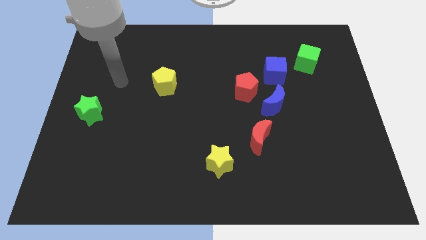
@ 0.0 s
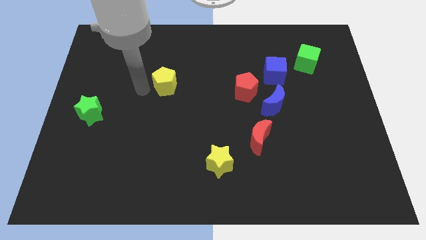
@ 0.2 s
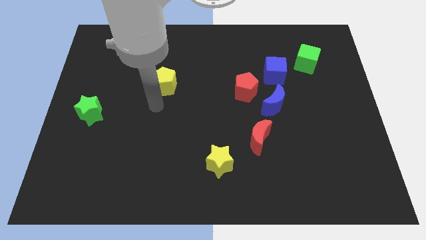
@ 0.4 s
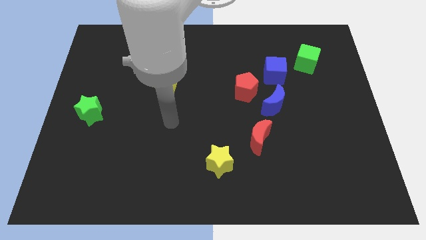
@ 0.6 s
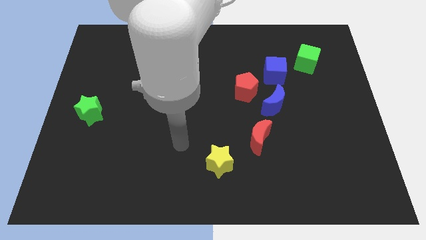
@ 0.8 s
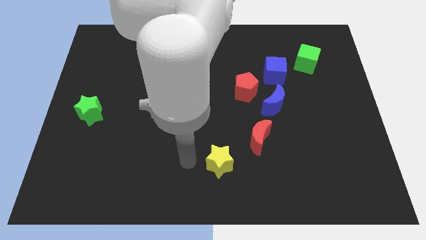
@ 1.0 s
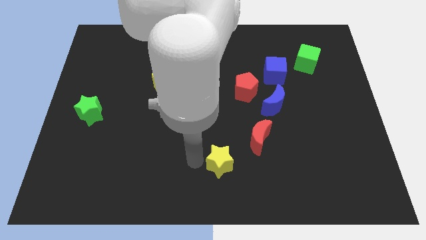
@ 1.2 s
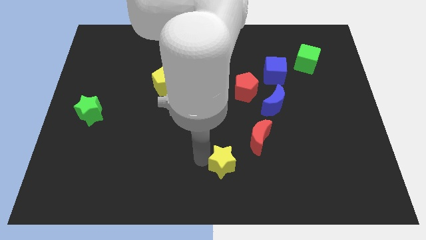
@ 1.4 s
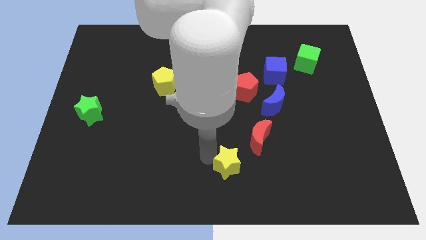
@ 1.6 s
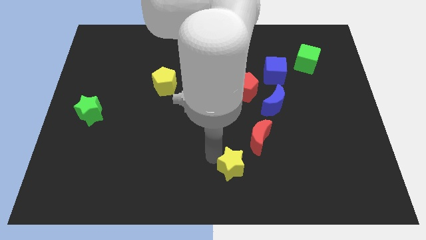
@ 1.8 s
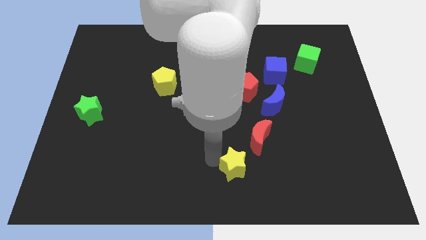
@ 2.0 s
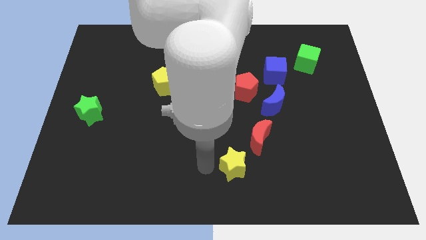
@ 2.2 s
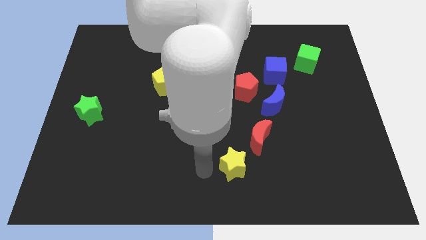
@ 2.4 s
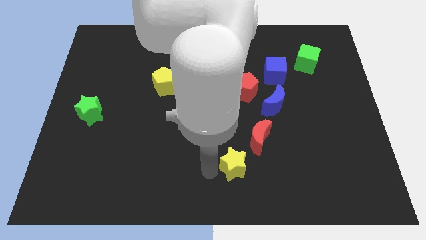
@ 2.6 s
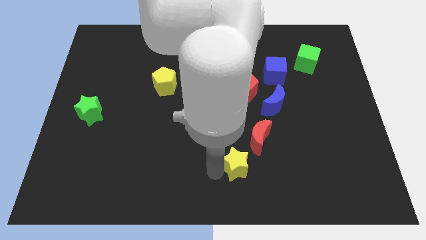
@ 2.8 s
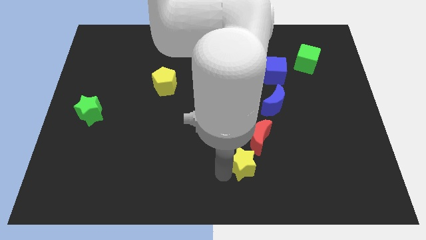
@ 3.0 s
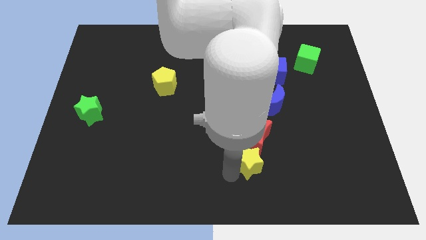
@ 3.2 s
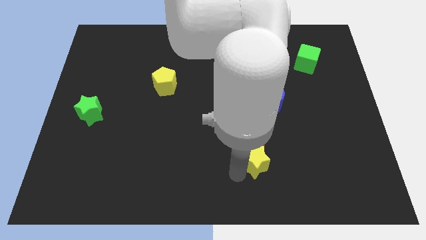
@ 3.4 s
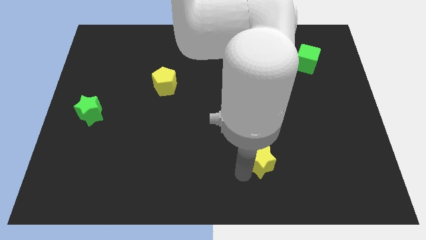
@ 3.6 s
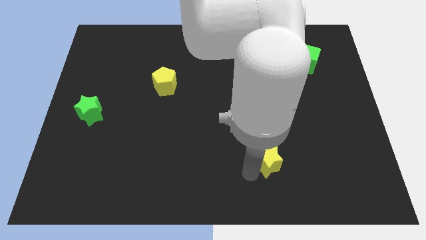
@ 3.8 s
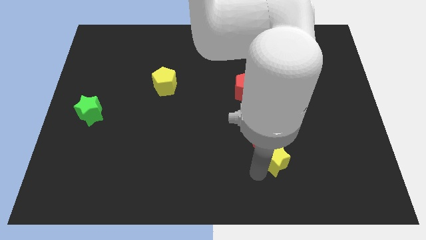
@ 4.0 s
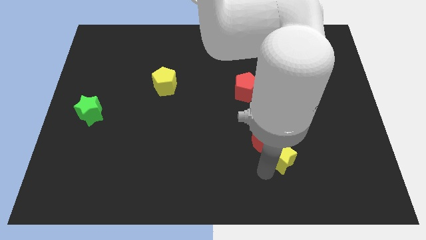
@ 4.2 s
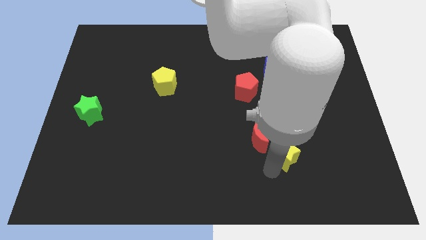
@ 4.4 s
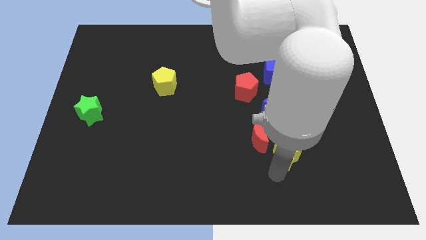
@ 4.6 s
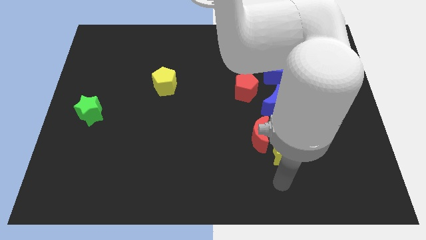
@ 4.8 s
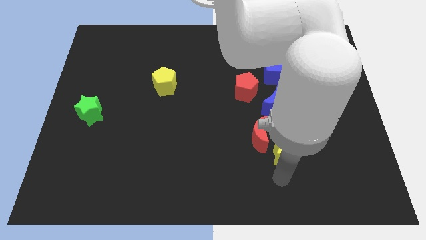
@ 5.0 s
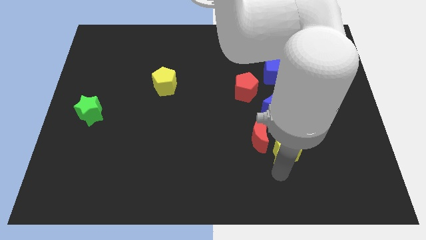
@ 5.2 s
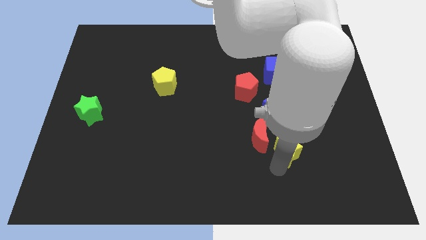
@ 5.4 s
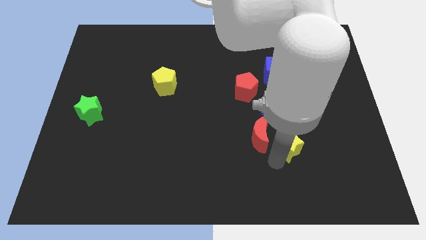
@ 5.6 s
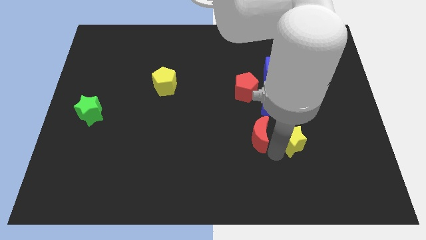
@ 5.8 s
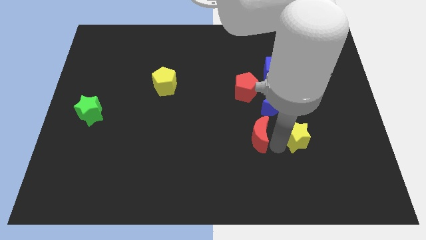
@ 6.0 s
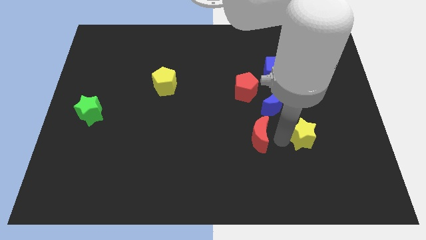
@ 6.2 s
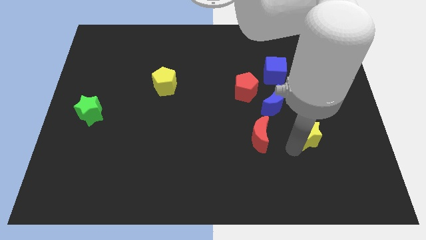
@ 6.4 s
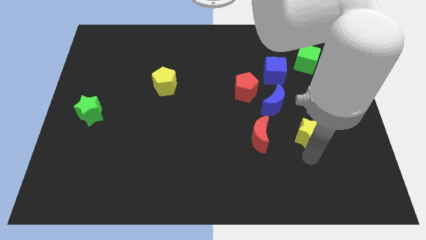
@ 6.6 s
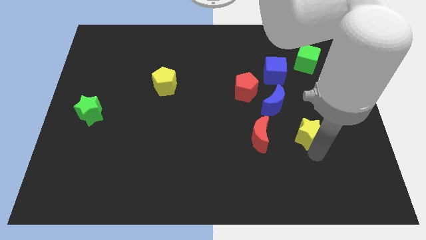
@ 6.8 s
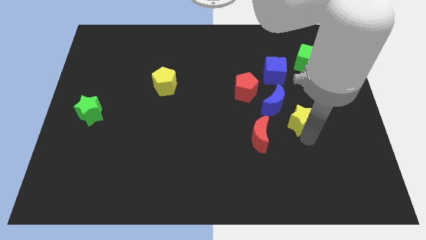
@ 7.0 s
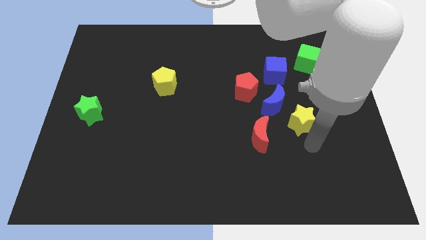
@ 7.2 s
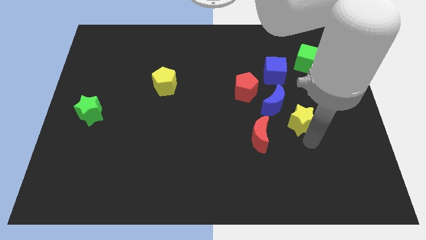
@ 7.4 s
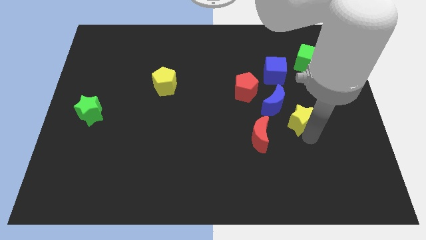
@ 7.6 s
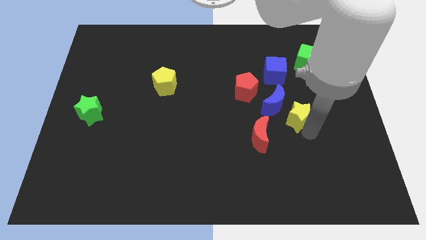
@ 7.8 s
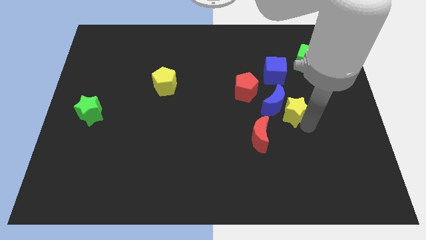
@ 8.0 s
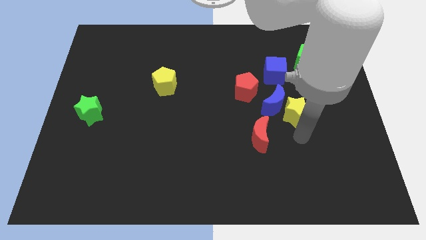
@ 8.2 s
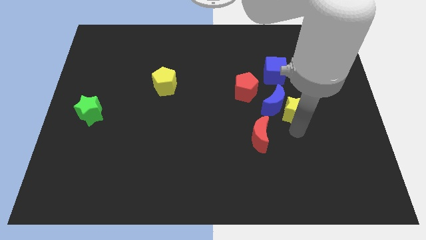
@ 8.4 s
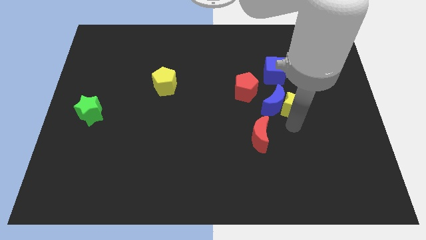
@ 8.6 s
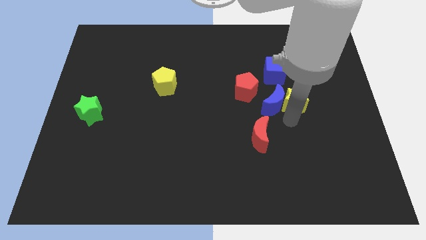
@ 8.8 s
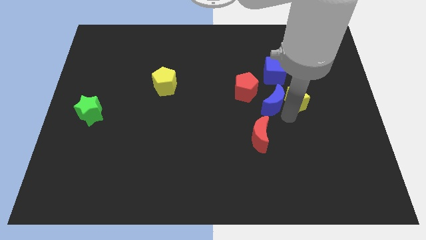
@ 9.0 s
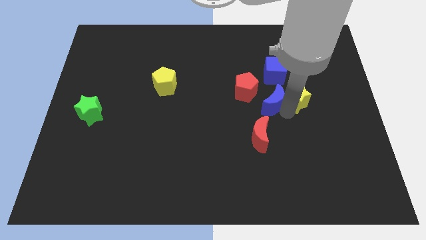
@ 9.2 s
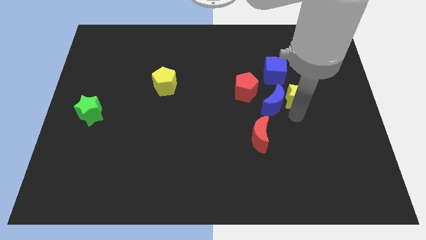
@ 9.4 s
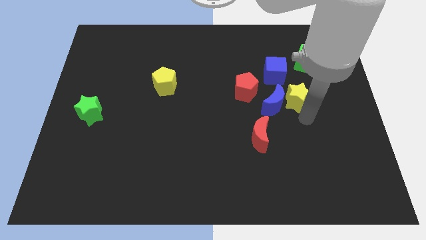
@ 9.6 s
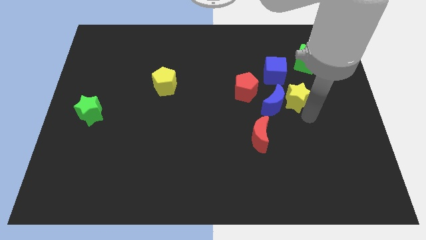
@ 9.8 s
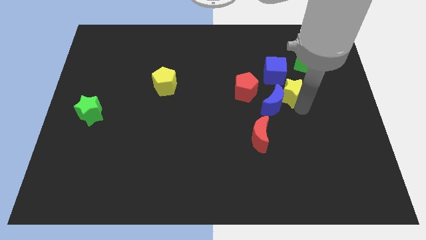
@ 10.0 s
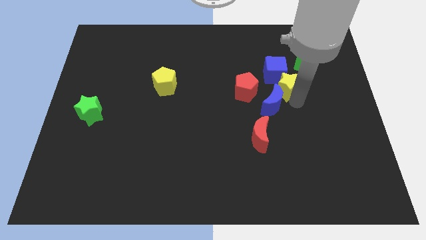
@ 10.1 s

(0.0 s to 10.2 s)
slide the yellow star towards the blue cube

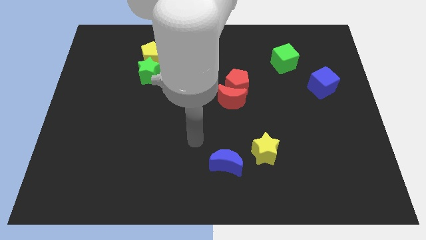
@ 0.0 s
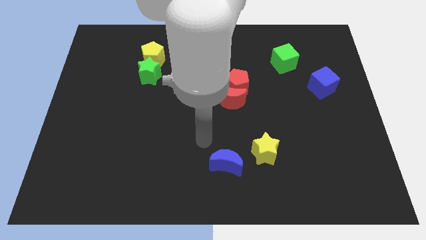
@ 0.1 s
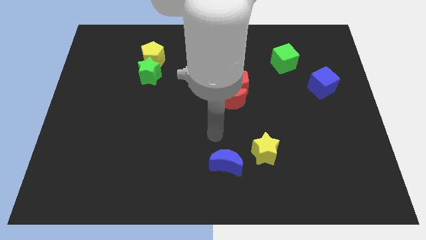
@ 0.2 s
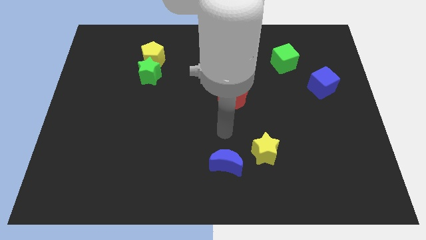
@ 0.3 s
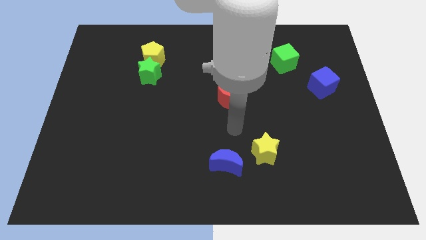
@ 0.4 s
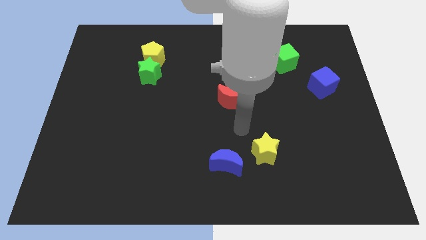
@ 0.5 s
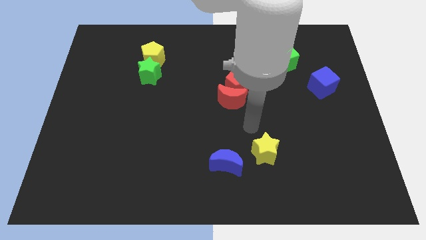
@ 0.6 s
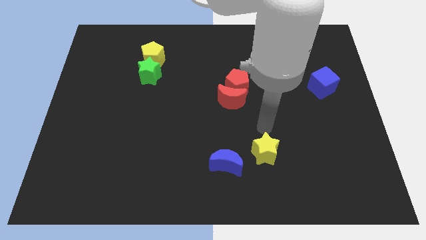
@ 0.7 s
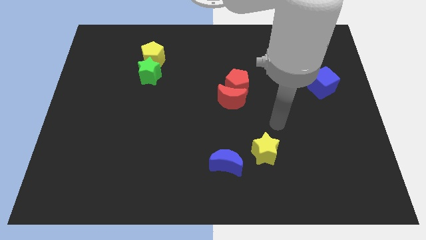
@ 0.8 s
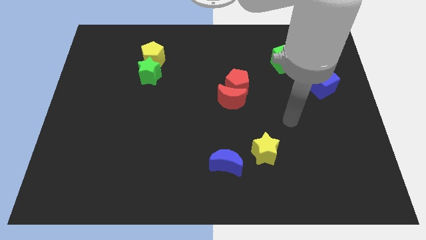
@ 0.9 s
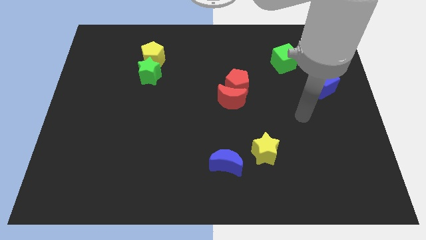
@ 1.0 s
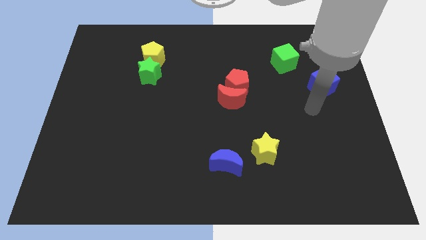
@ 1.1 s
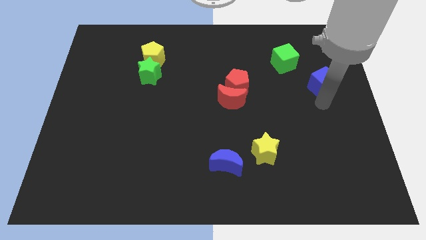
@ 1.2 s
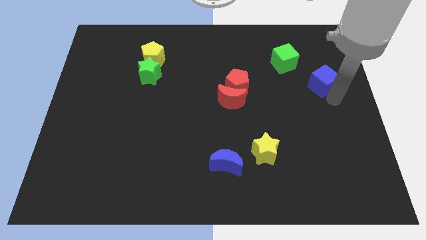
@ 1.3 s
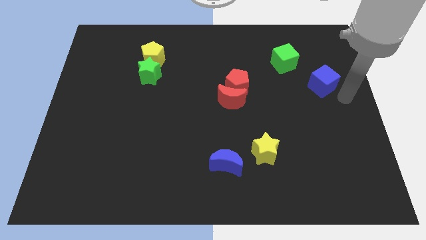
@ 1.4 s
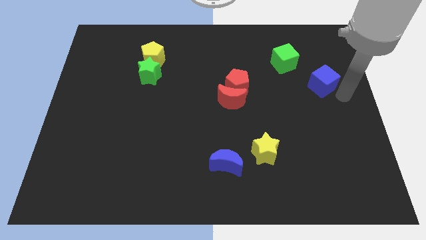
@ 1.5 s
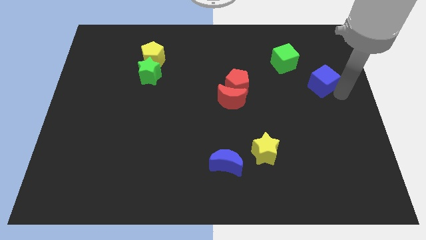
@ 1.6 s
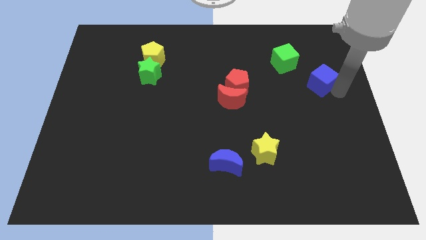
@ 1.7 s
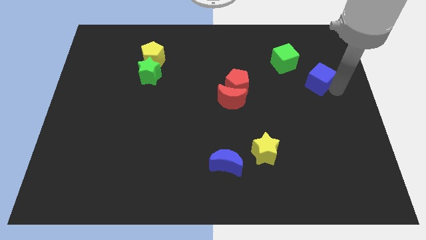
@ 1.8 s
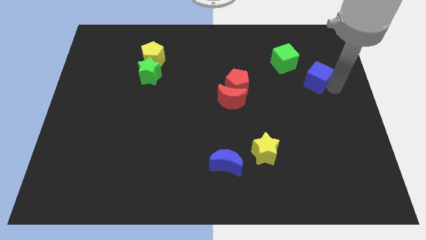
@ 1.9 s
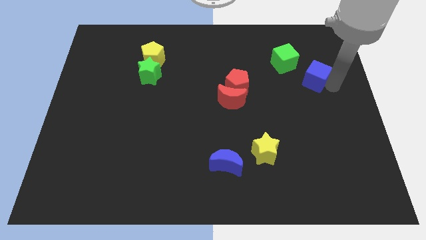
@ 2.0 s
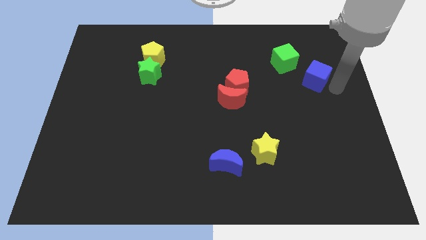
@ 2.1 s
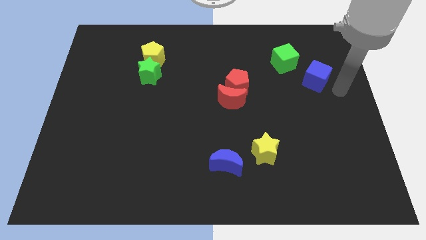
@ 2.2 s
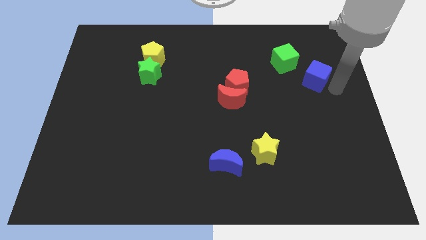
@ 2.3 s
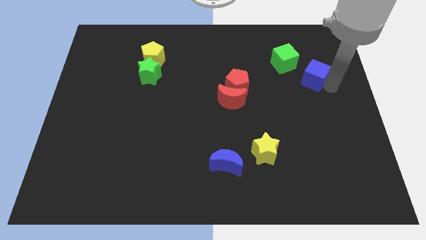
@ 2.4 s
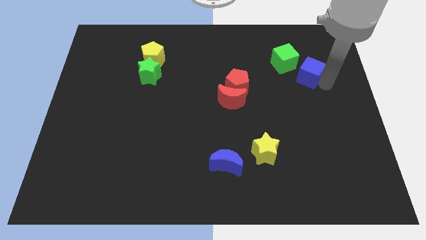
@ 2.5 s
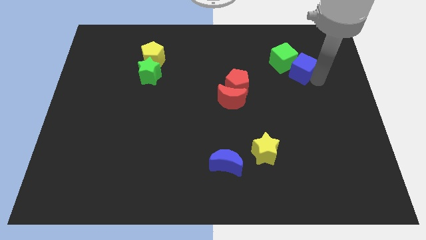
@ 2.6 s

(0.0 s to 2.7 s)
put the blue cube towards the green cube
